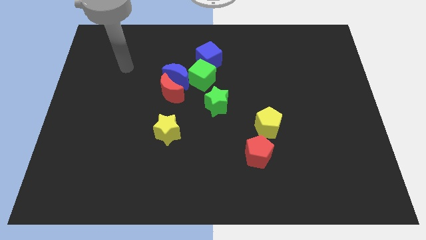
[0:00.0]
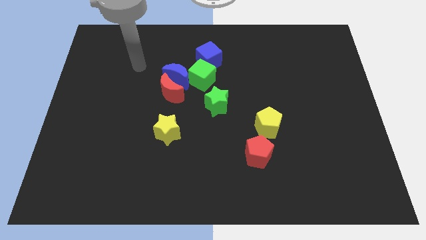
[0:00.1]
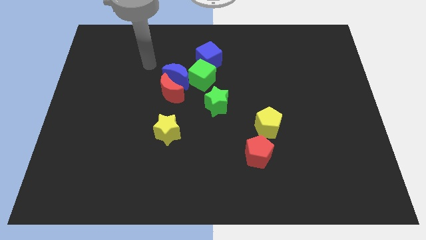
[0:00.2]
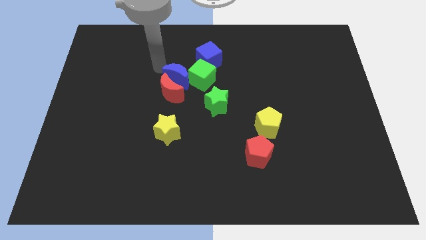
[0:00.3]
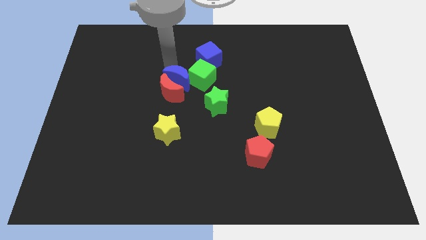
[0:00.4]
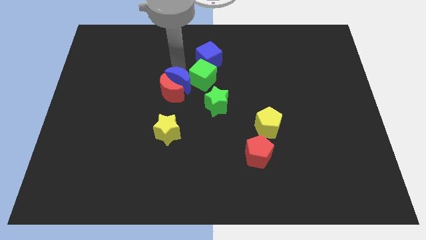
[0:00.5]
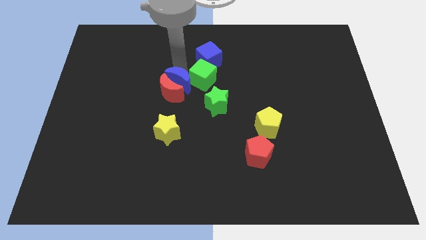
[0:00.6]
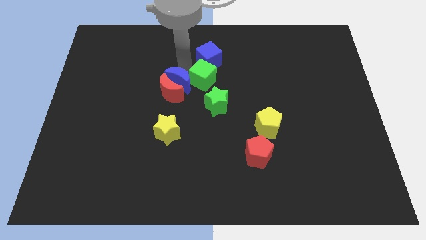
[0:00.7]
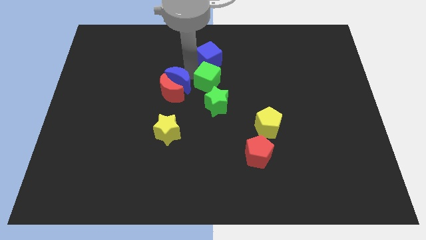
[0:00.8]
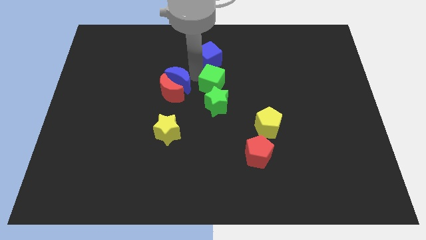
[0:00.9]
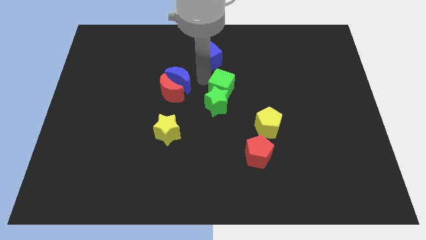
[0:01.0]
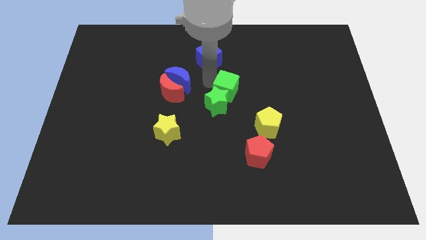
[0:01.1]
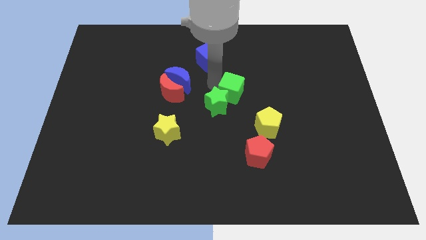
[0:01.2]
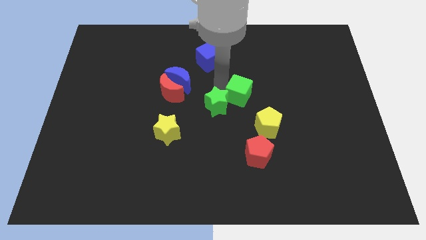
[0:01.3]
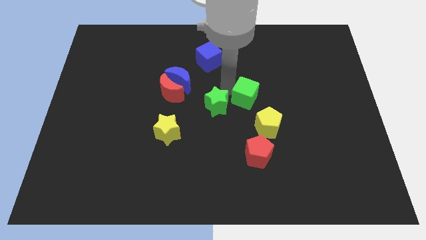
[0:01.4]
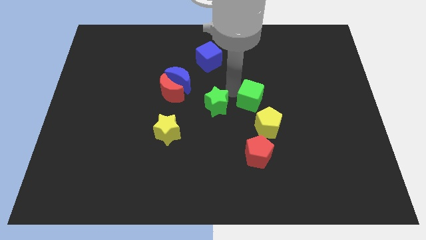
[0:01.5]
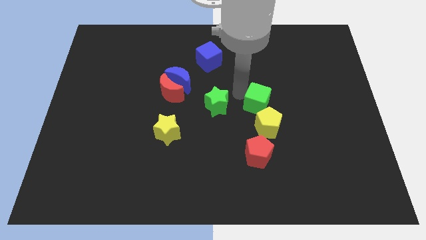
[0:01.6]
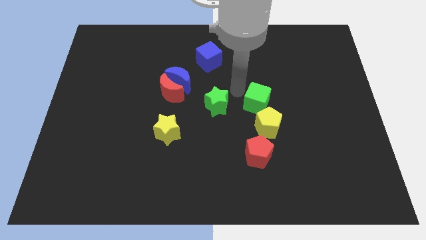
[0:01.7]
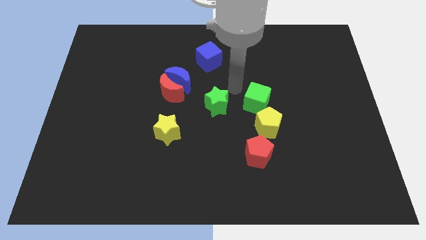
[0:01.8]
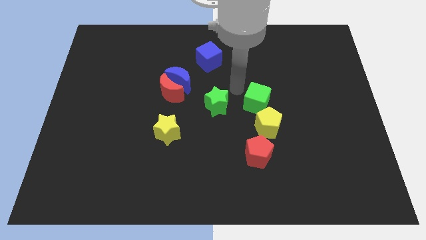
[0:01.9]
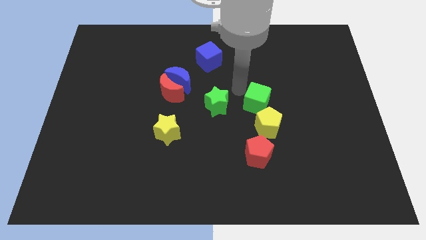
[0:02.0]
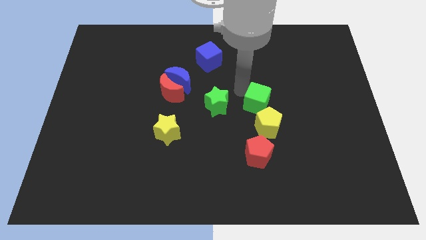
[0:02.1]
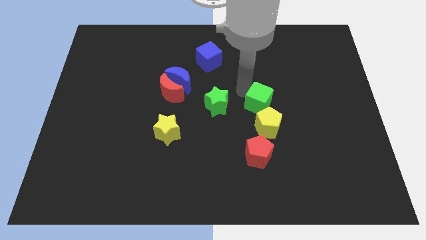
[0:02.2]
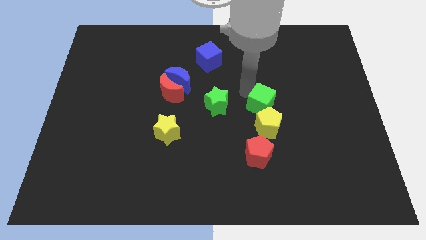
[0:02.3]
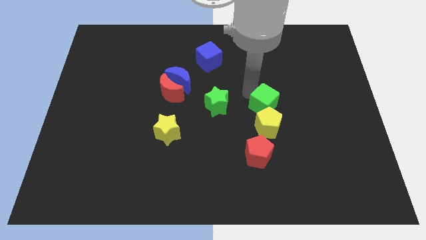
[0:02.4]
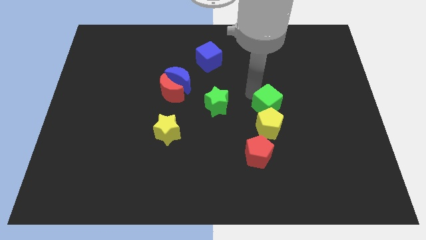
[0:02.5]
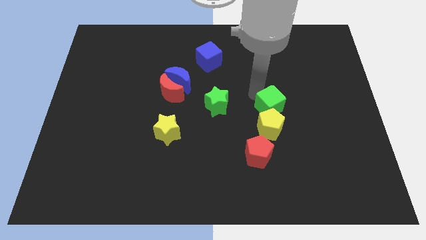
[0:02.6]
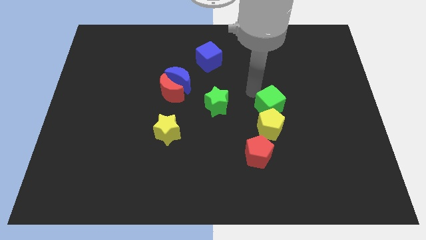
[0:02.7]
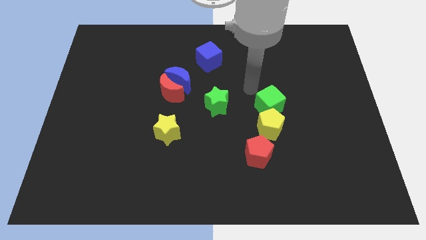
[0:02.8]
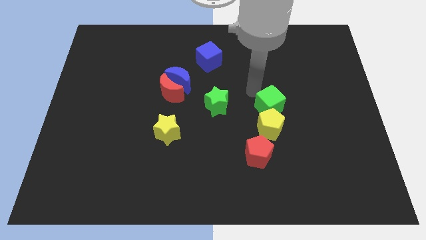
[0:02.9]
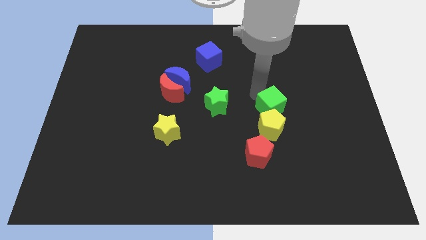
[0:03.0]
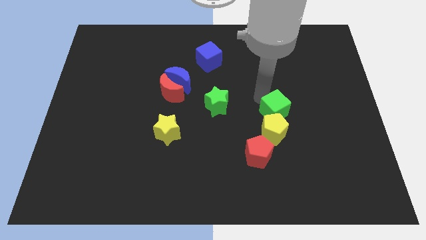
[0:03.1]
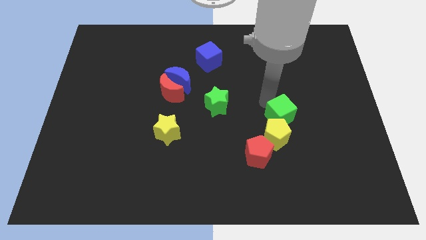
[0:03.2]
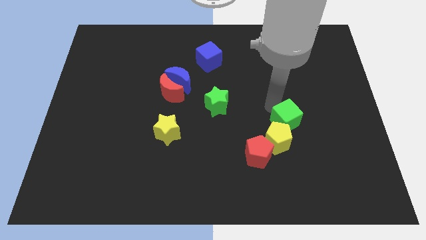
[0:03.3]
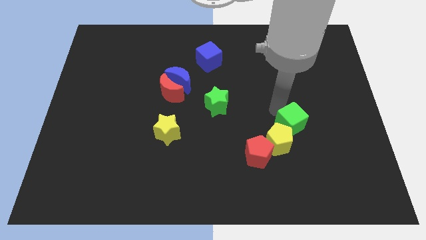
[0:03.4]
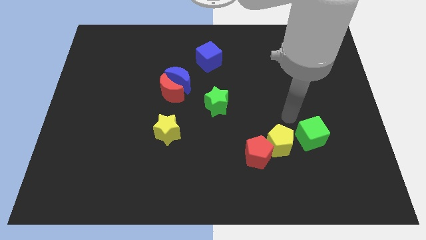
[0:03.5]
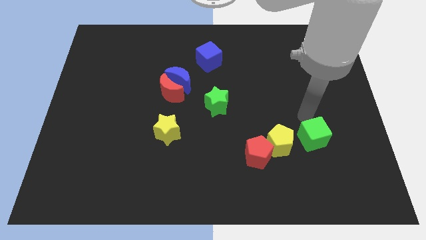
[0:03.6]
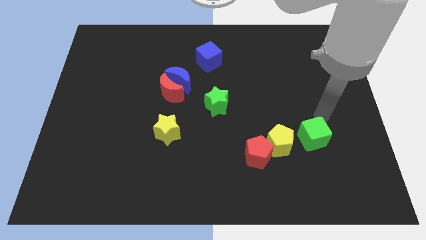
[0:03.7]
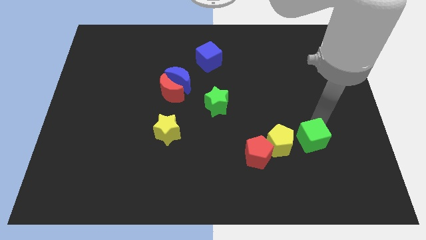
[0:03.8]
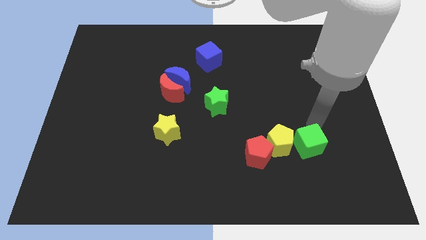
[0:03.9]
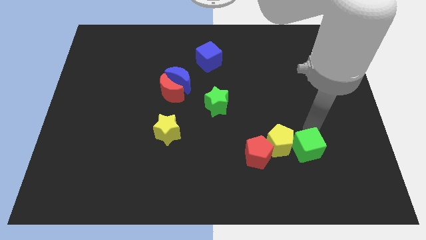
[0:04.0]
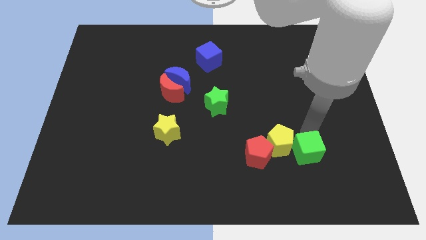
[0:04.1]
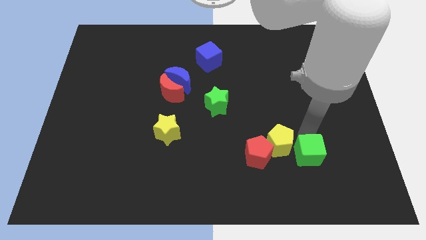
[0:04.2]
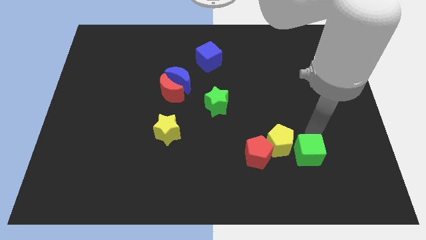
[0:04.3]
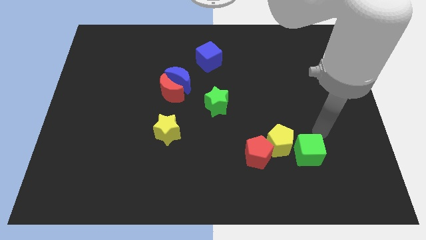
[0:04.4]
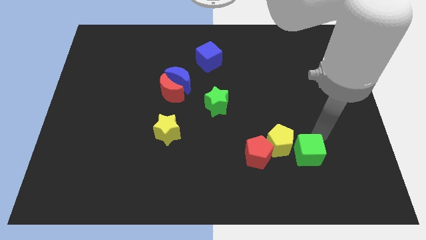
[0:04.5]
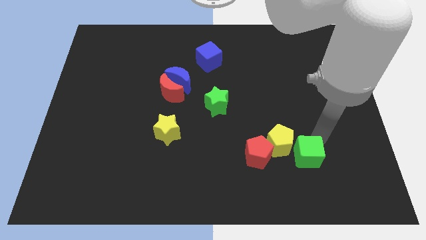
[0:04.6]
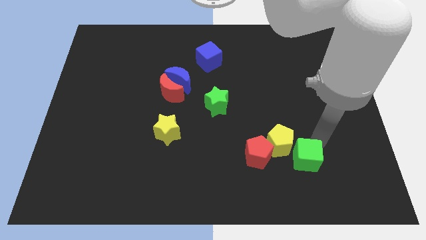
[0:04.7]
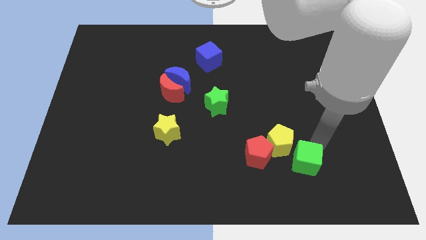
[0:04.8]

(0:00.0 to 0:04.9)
put the green cube below the yellow pentagon

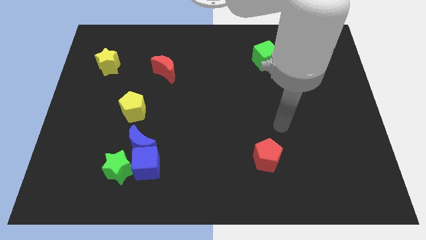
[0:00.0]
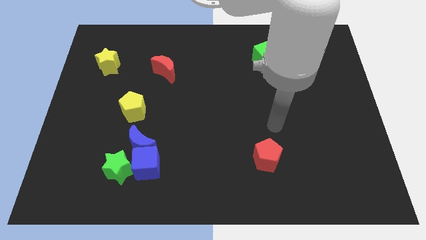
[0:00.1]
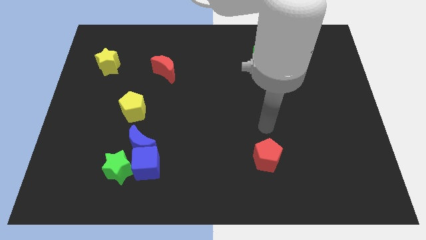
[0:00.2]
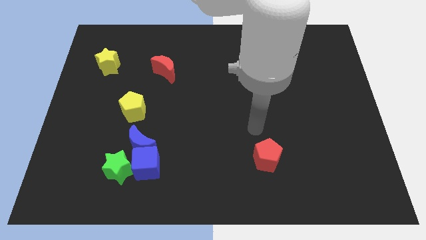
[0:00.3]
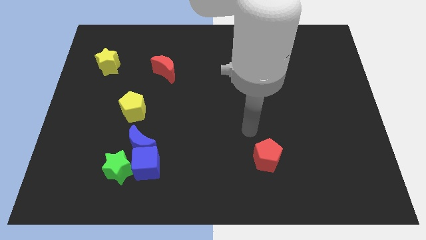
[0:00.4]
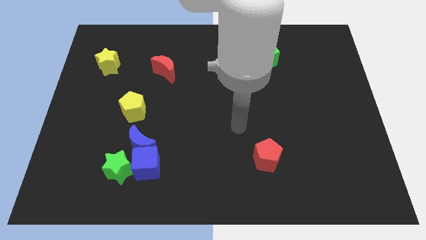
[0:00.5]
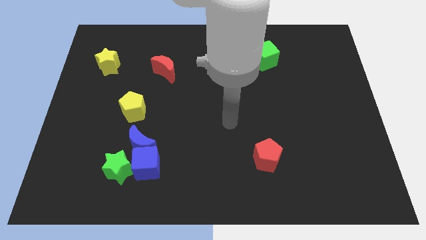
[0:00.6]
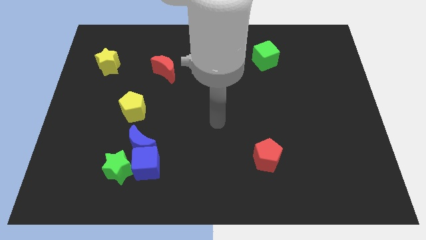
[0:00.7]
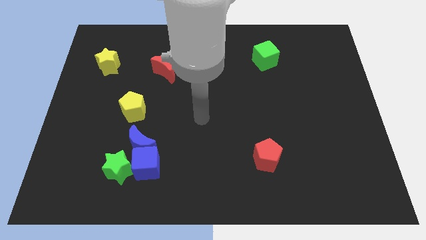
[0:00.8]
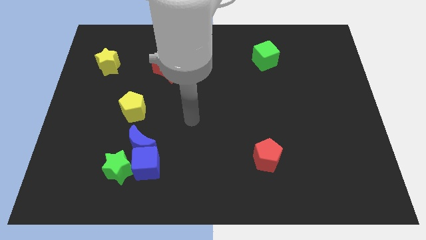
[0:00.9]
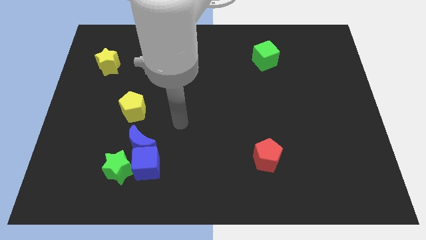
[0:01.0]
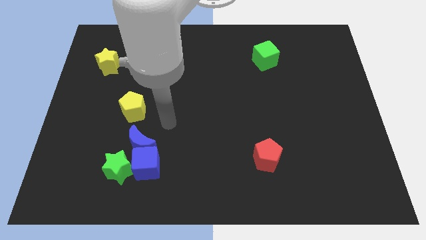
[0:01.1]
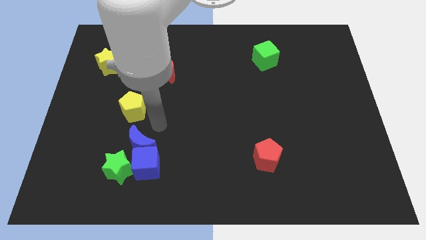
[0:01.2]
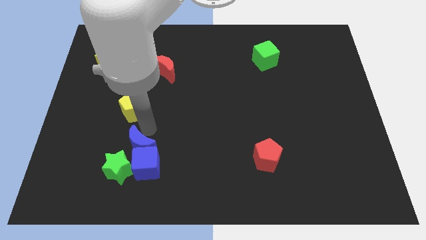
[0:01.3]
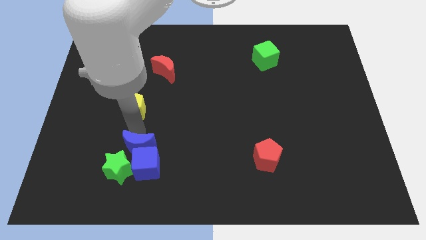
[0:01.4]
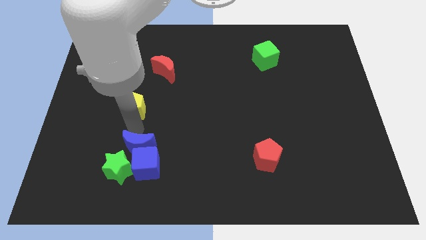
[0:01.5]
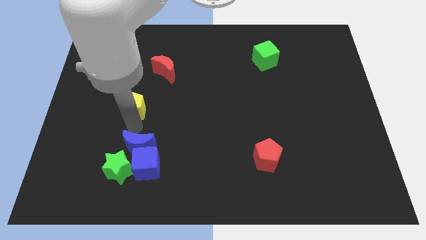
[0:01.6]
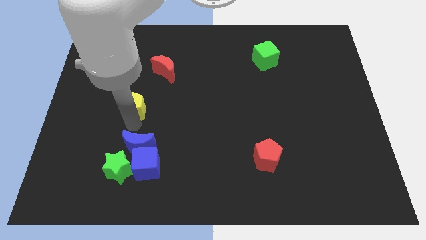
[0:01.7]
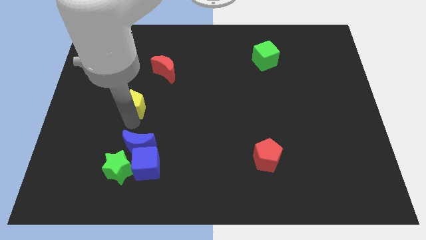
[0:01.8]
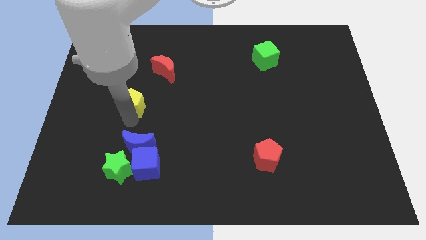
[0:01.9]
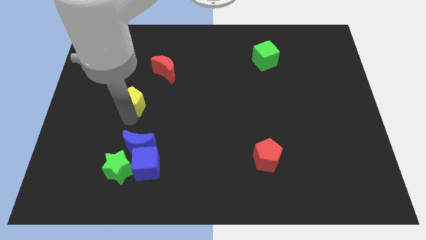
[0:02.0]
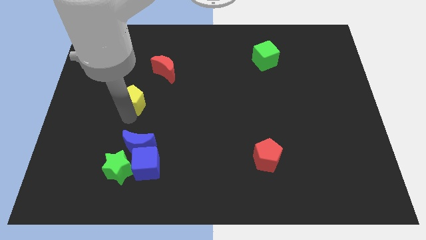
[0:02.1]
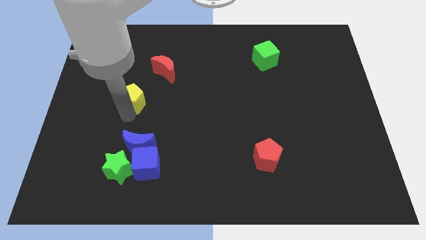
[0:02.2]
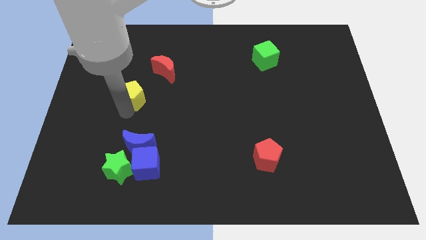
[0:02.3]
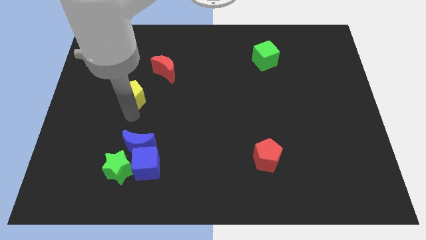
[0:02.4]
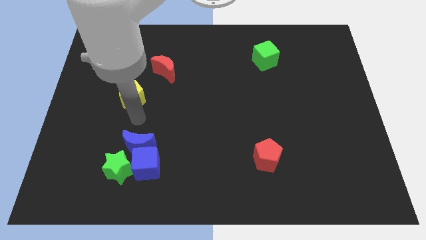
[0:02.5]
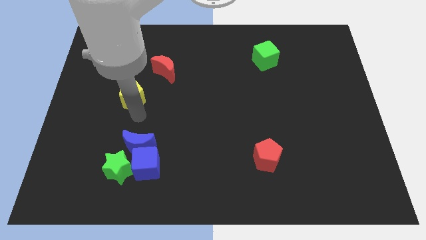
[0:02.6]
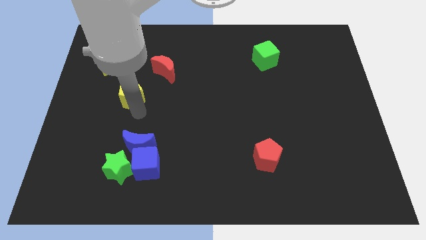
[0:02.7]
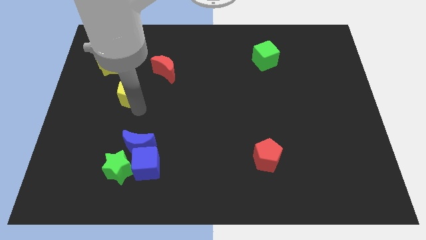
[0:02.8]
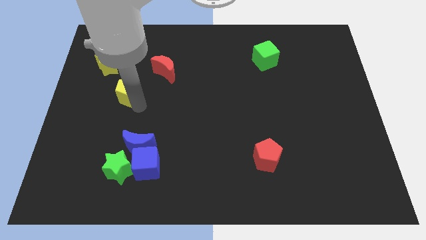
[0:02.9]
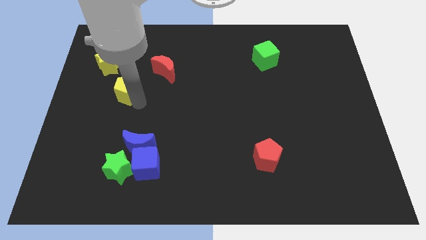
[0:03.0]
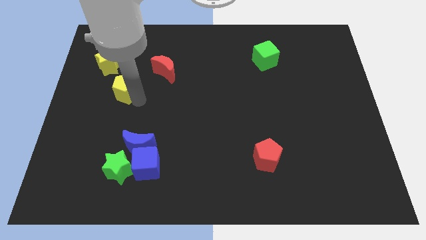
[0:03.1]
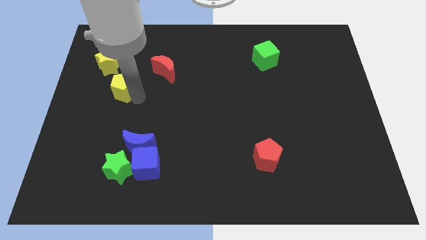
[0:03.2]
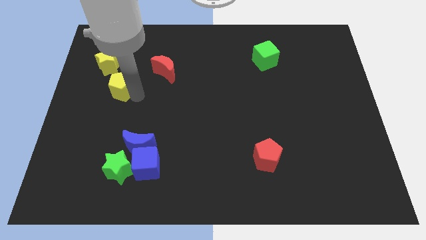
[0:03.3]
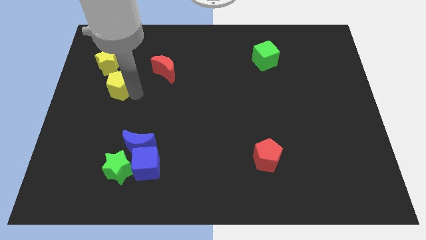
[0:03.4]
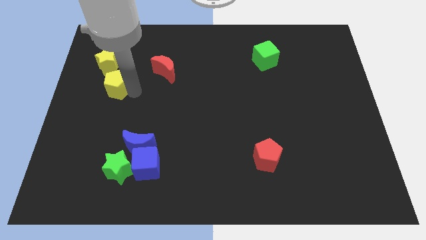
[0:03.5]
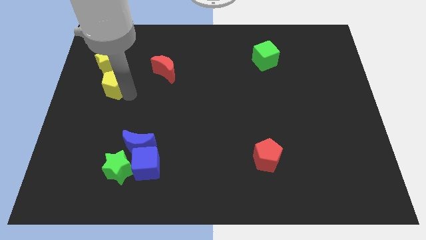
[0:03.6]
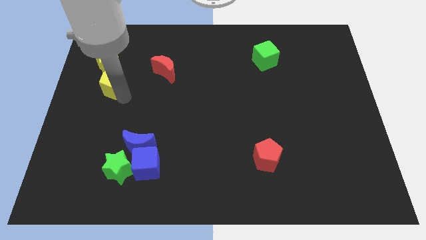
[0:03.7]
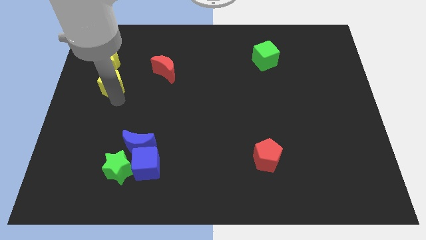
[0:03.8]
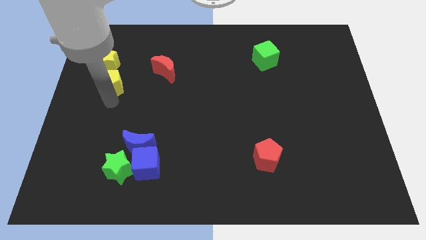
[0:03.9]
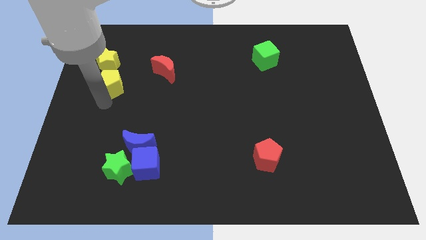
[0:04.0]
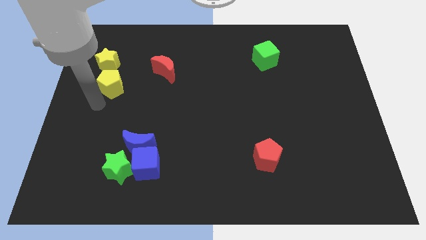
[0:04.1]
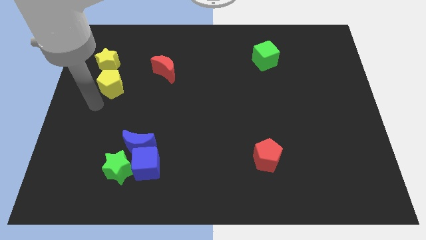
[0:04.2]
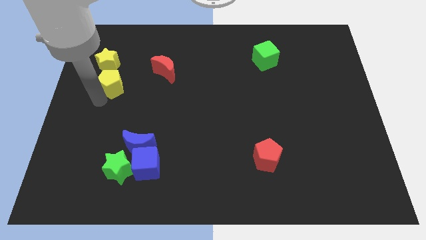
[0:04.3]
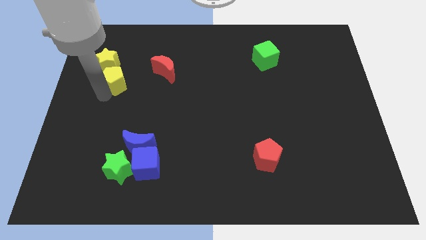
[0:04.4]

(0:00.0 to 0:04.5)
slide the yellow pentagon to the left side of the red moon
